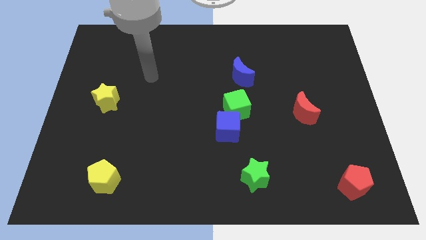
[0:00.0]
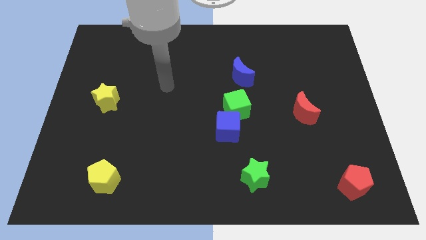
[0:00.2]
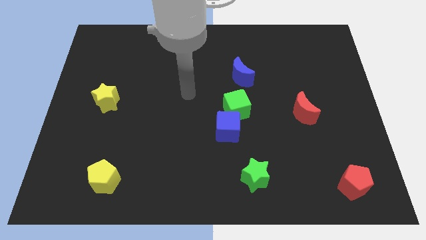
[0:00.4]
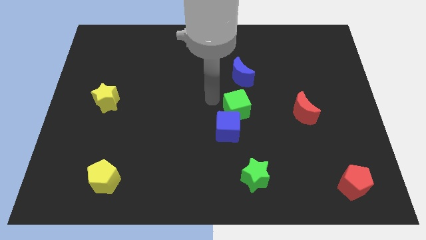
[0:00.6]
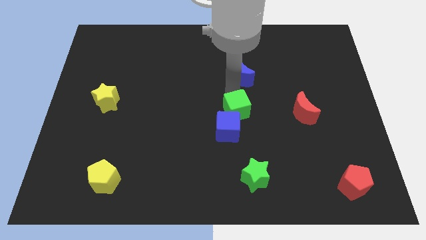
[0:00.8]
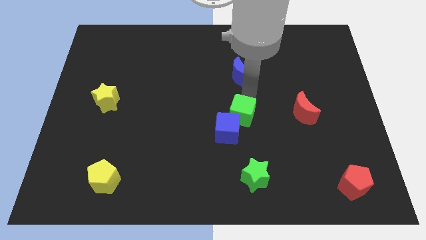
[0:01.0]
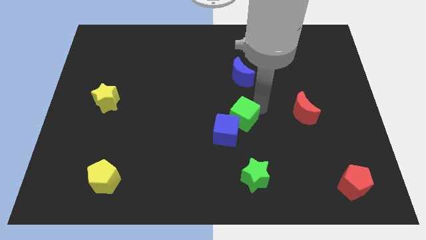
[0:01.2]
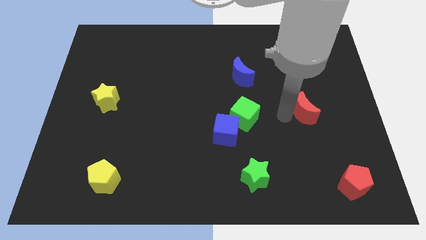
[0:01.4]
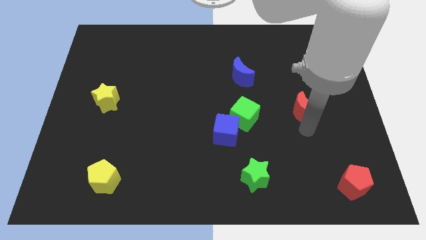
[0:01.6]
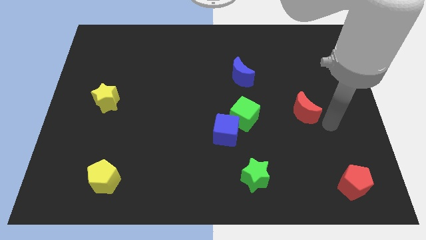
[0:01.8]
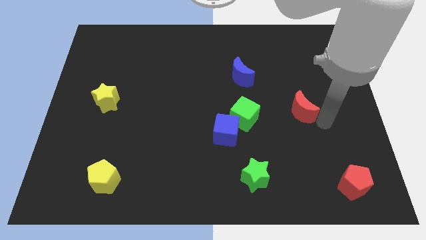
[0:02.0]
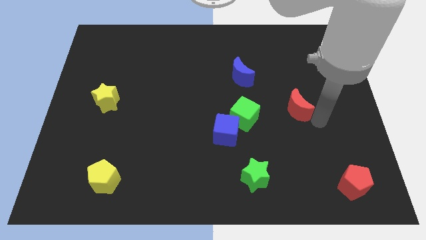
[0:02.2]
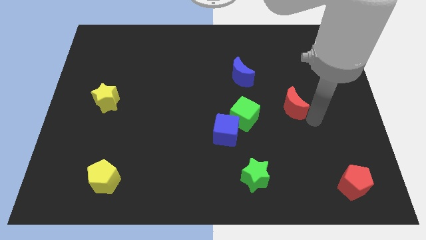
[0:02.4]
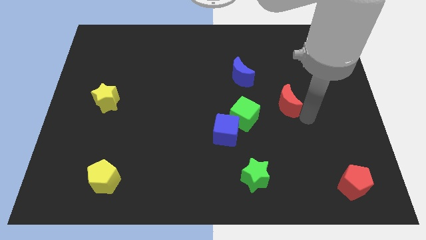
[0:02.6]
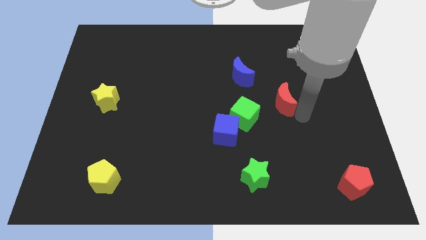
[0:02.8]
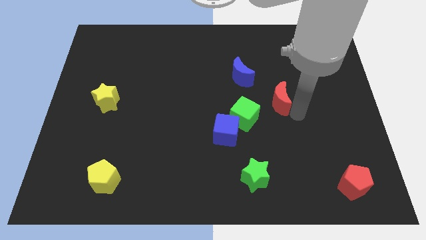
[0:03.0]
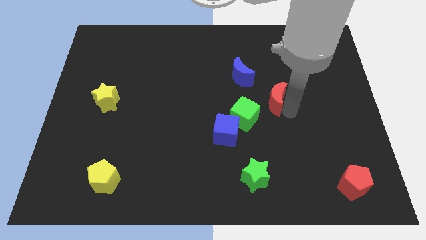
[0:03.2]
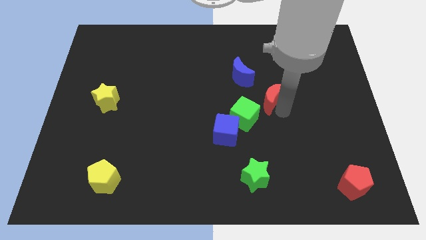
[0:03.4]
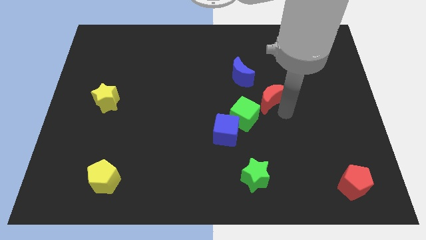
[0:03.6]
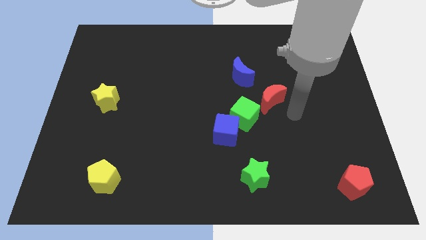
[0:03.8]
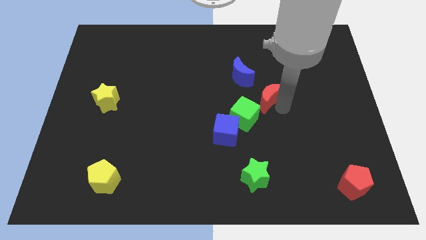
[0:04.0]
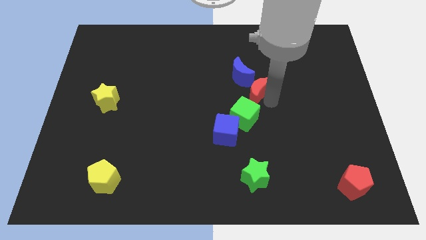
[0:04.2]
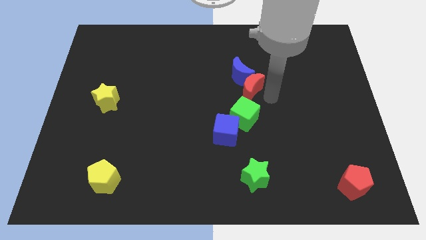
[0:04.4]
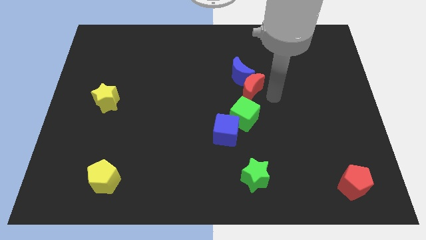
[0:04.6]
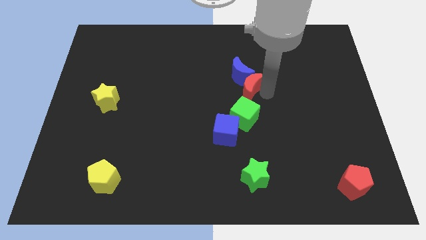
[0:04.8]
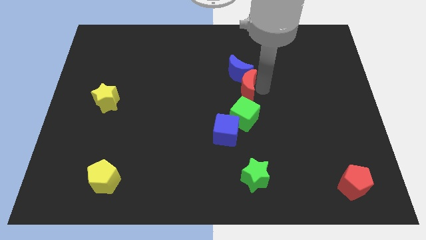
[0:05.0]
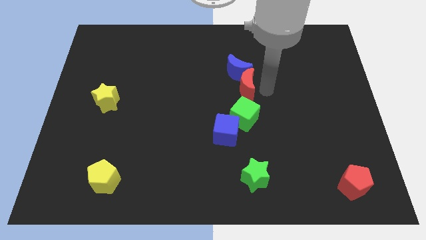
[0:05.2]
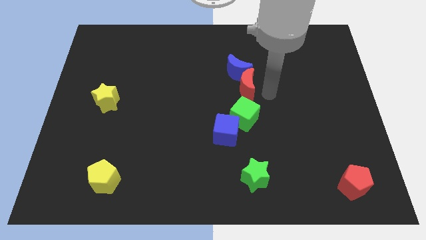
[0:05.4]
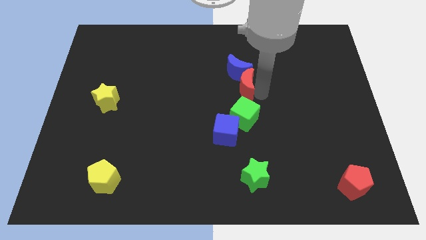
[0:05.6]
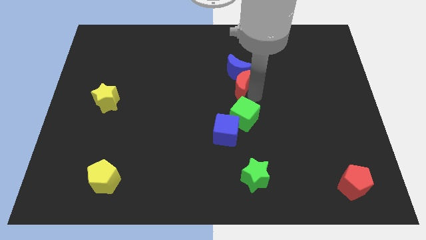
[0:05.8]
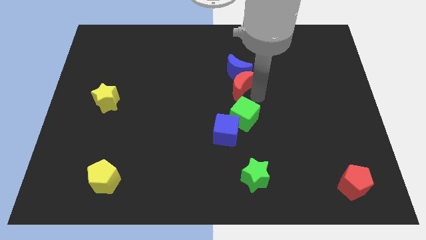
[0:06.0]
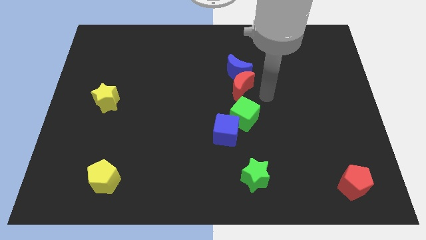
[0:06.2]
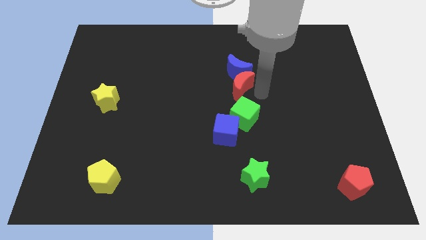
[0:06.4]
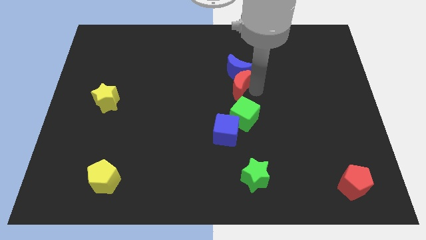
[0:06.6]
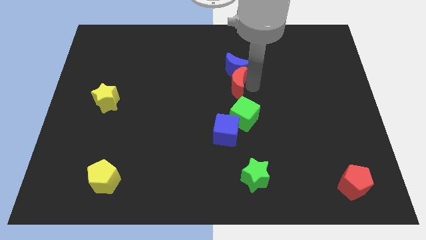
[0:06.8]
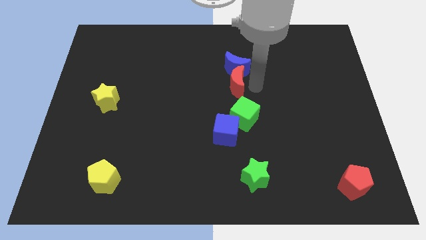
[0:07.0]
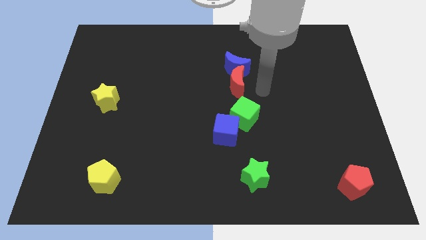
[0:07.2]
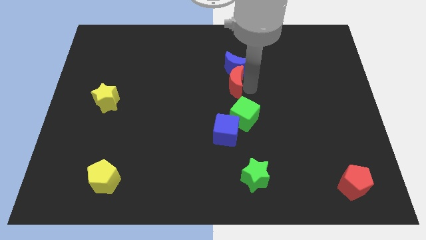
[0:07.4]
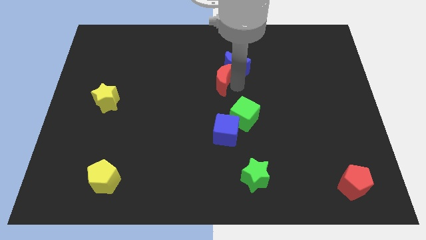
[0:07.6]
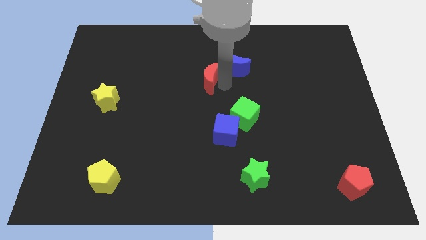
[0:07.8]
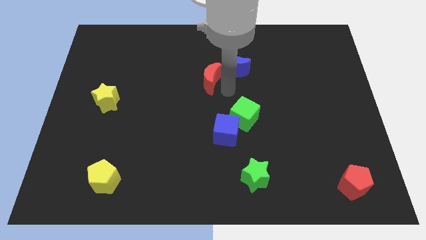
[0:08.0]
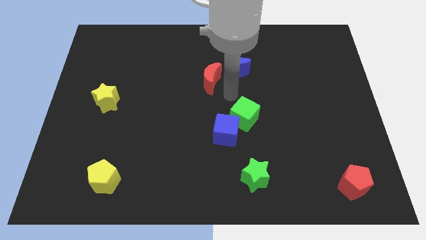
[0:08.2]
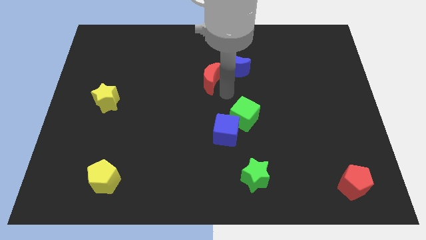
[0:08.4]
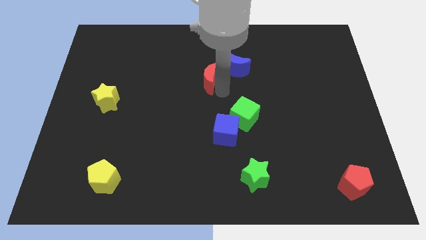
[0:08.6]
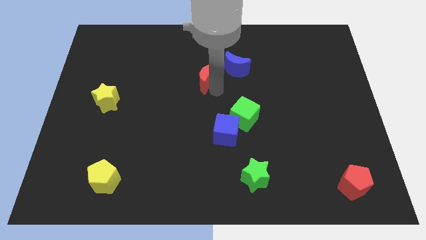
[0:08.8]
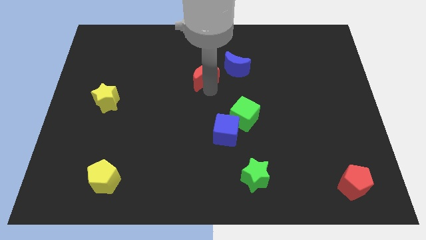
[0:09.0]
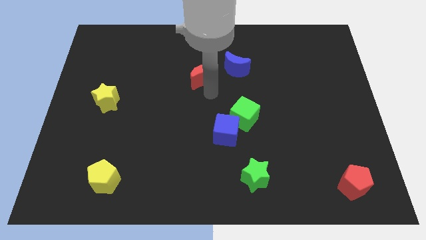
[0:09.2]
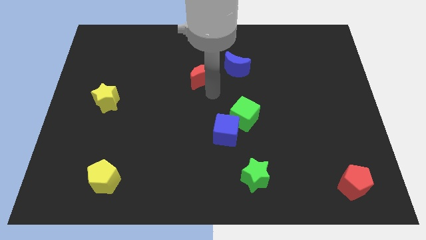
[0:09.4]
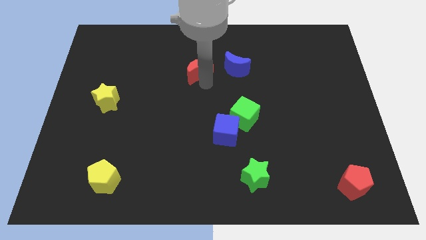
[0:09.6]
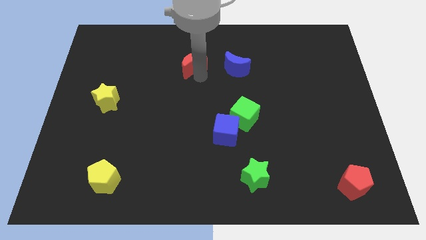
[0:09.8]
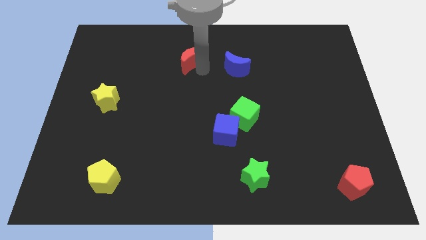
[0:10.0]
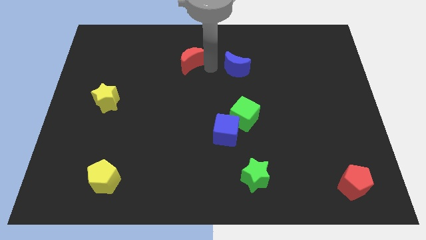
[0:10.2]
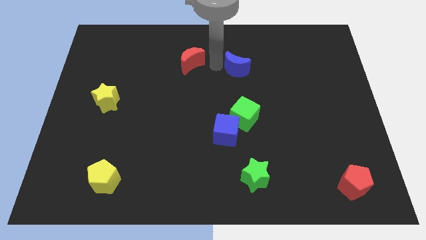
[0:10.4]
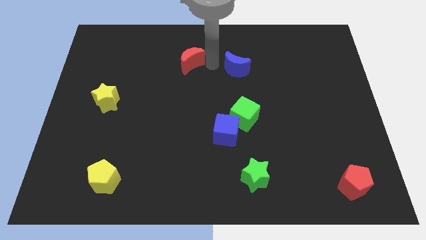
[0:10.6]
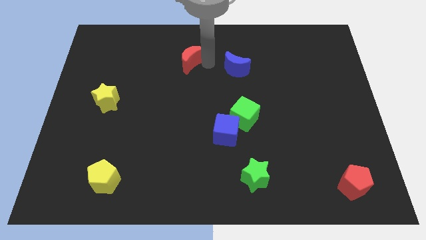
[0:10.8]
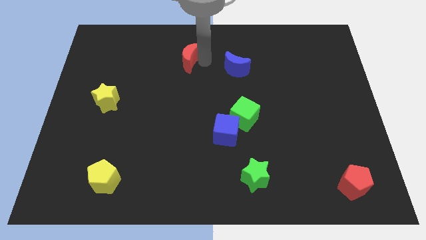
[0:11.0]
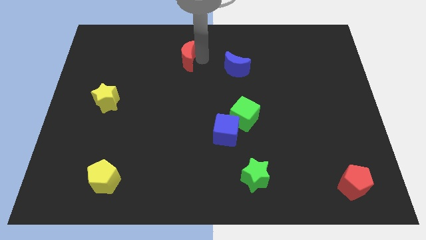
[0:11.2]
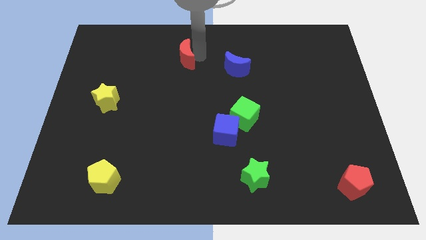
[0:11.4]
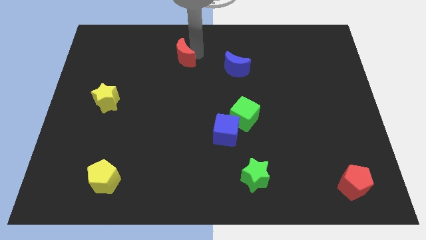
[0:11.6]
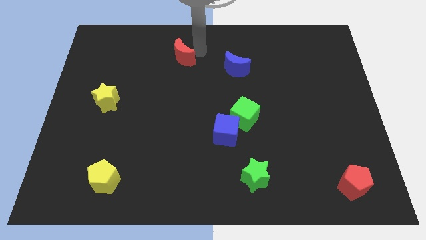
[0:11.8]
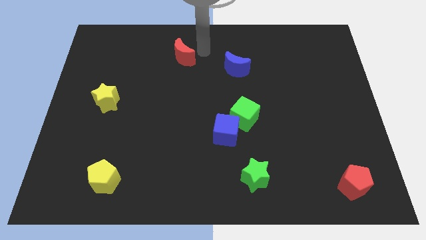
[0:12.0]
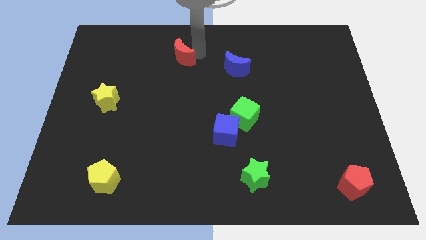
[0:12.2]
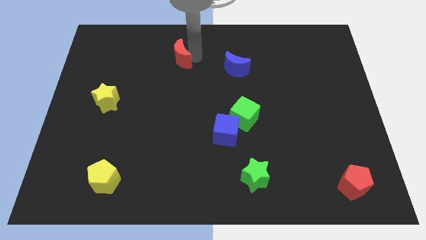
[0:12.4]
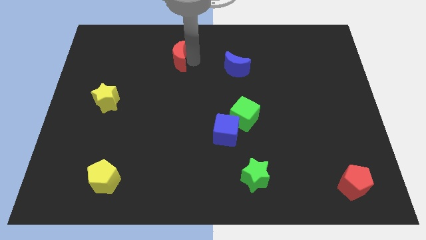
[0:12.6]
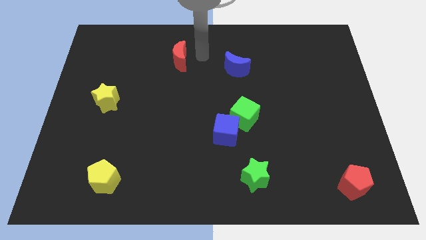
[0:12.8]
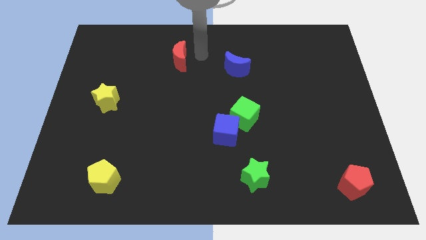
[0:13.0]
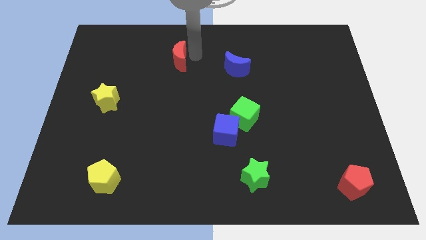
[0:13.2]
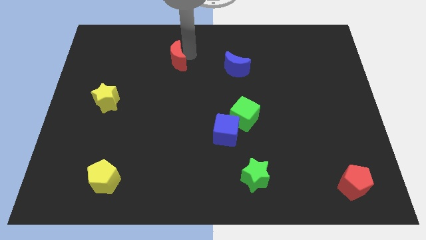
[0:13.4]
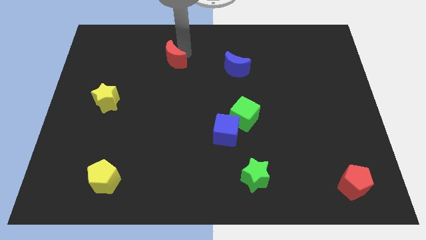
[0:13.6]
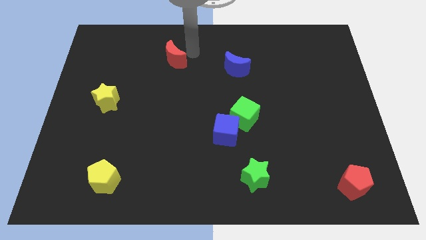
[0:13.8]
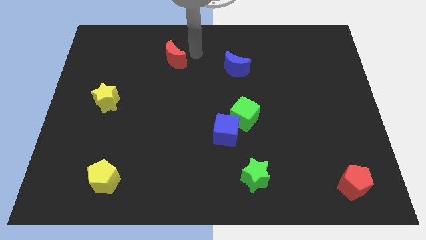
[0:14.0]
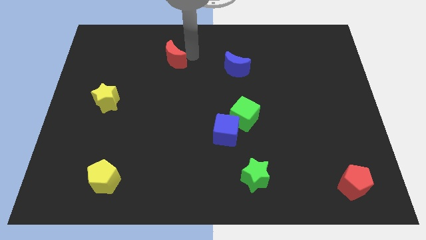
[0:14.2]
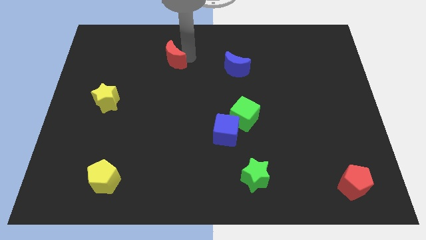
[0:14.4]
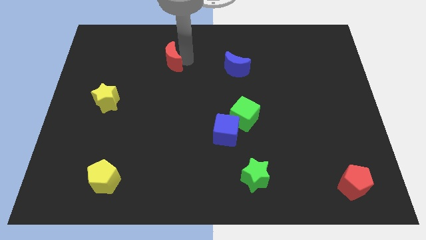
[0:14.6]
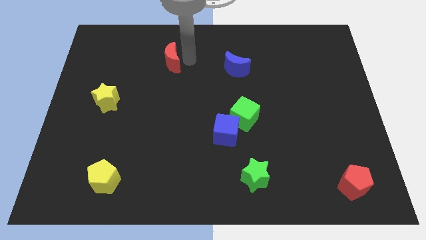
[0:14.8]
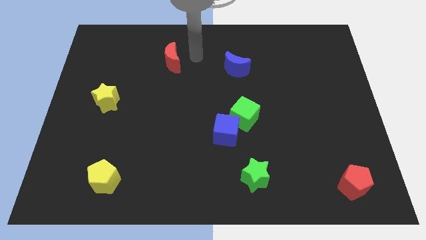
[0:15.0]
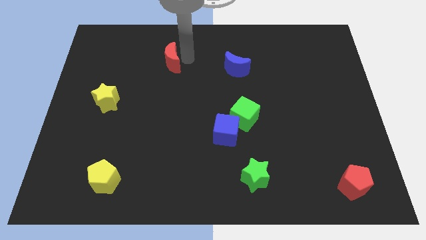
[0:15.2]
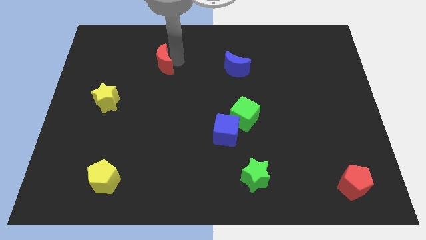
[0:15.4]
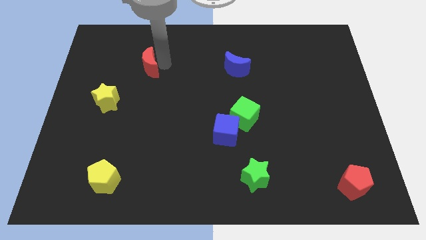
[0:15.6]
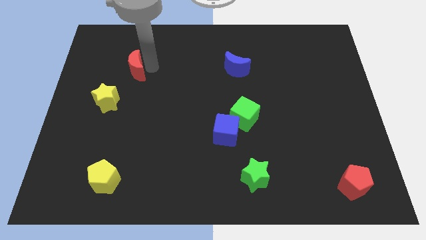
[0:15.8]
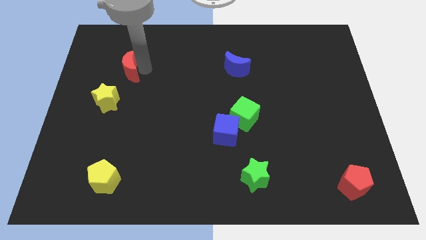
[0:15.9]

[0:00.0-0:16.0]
put the red moon to the top of the yellow star
